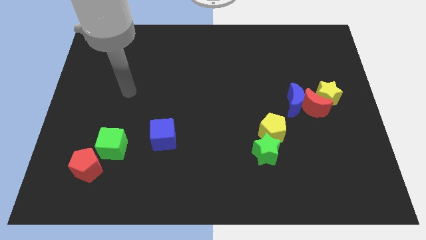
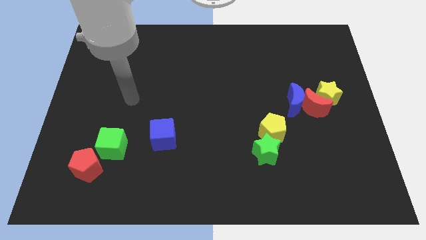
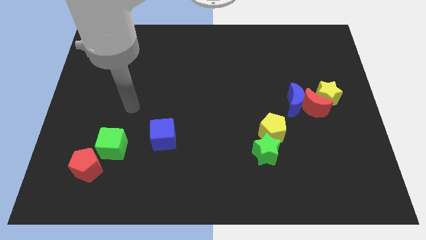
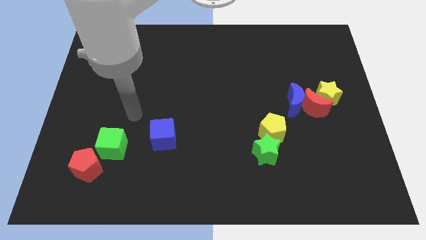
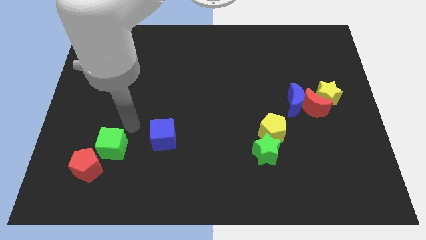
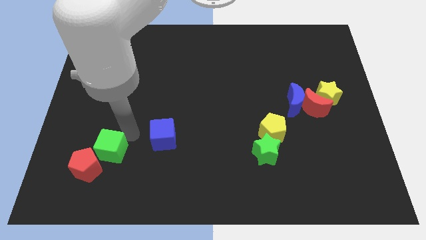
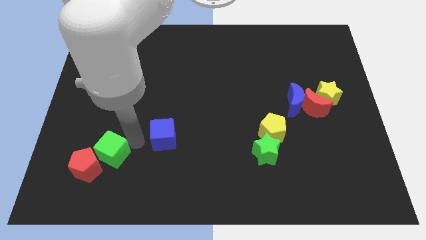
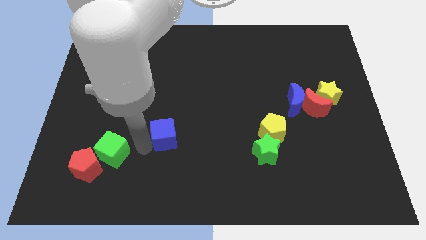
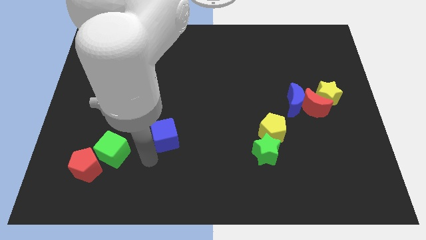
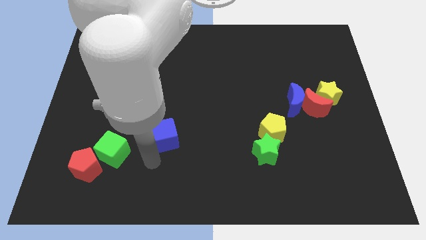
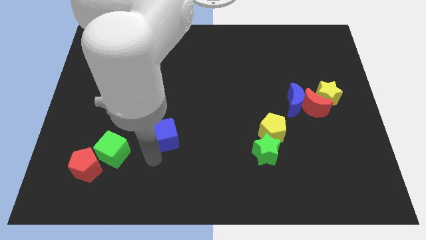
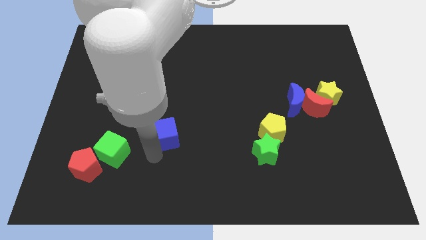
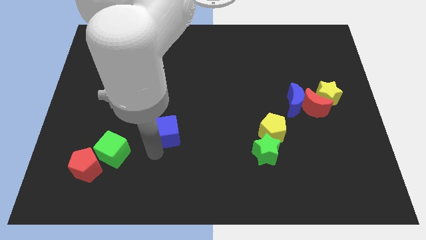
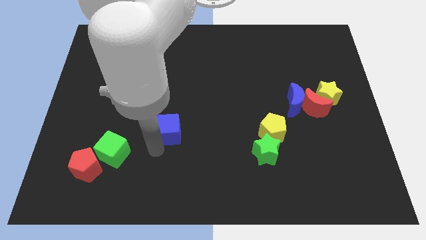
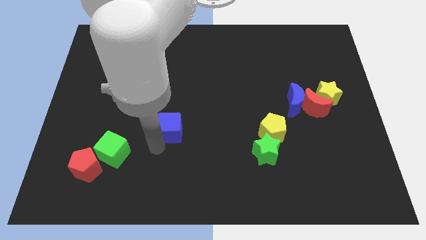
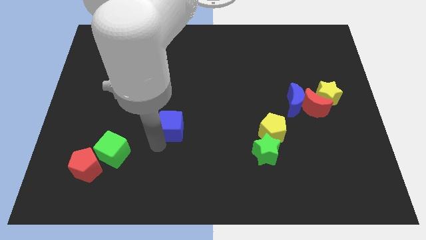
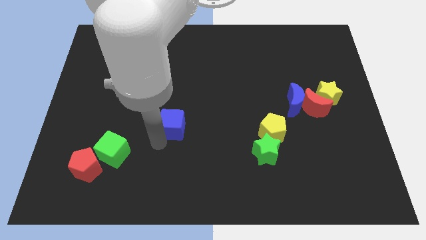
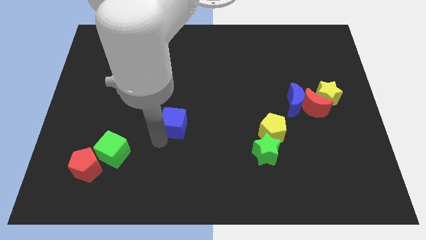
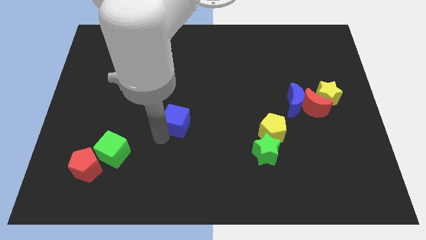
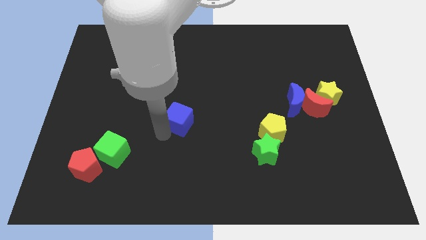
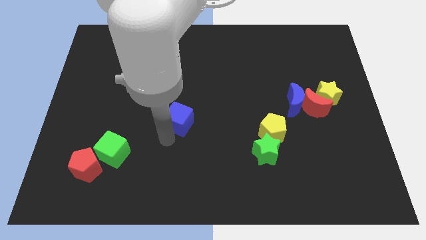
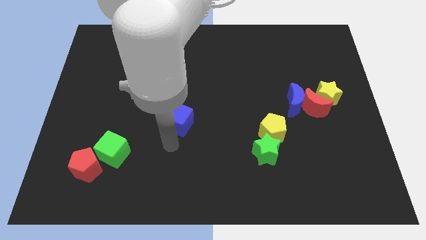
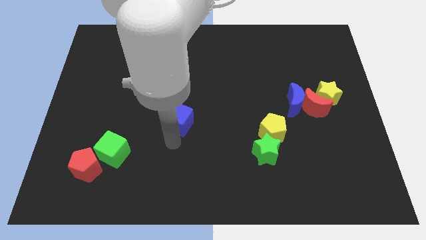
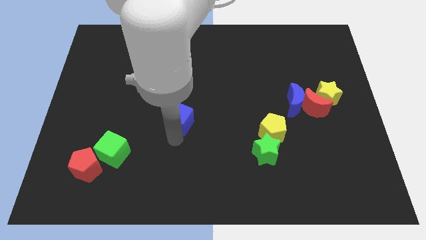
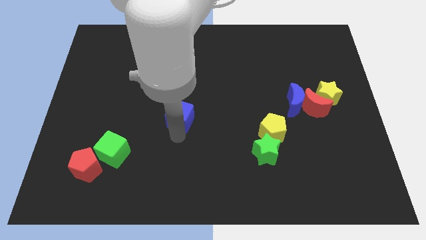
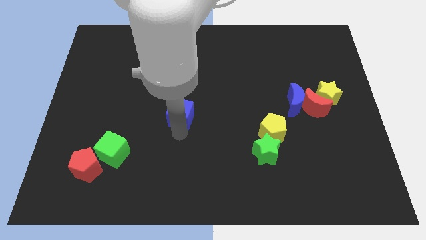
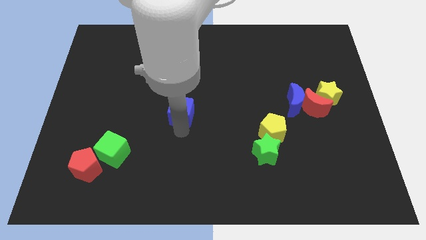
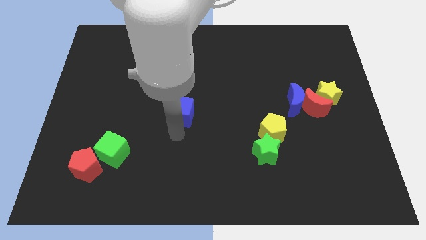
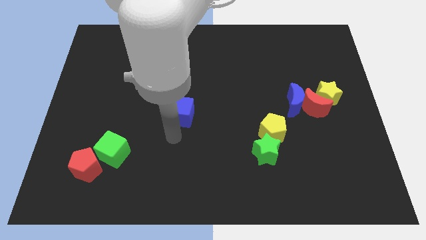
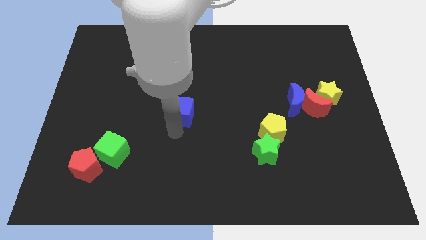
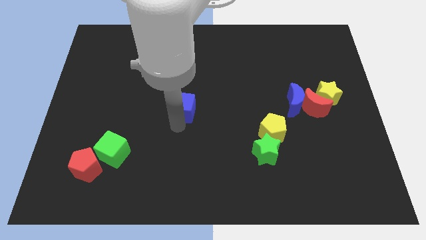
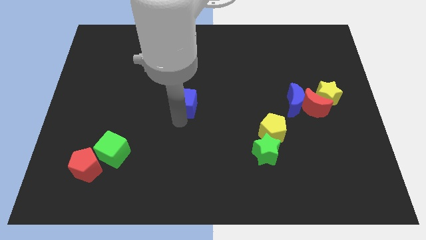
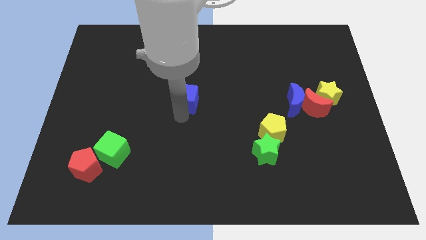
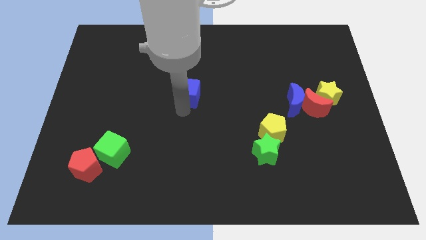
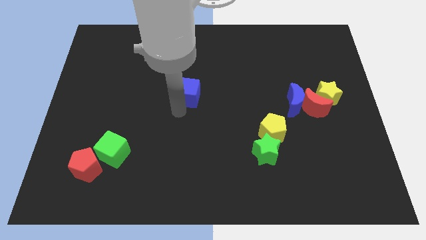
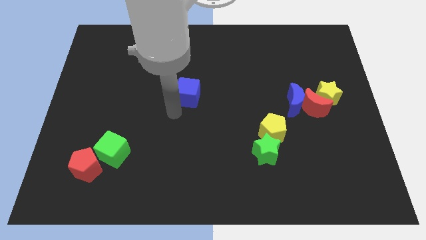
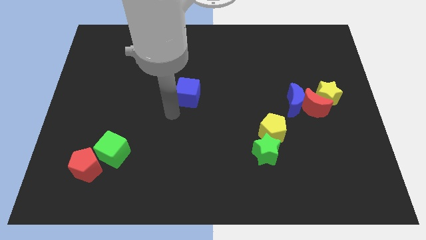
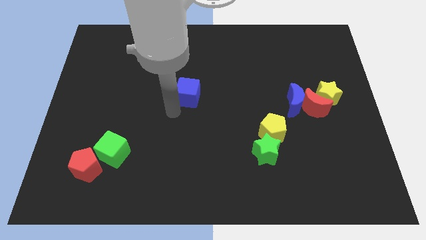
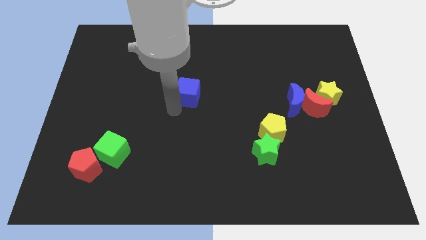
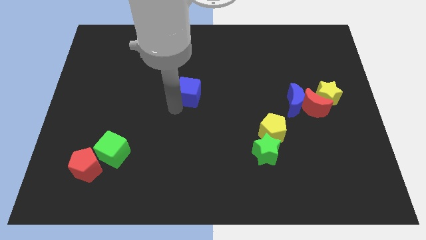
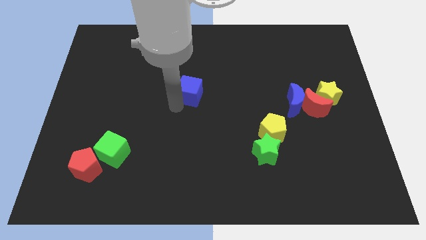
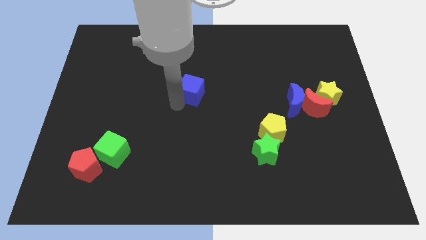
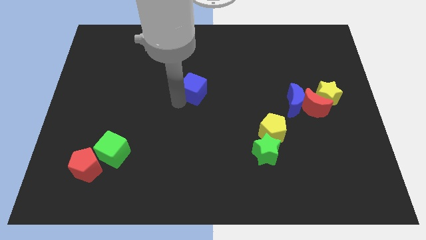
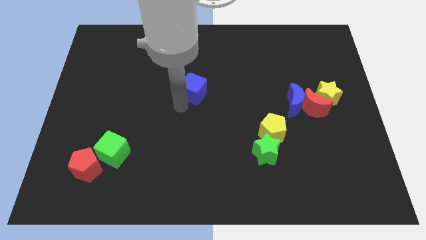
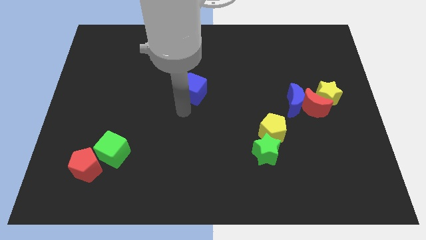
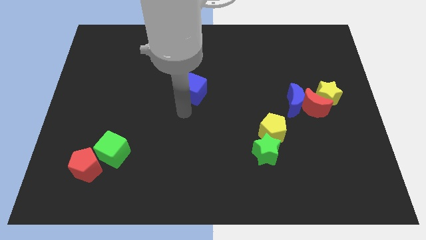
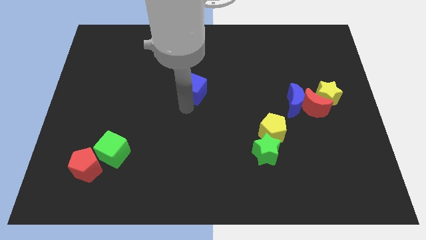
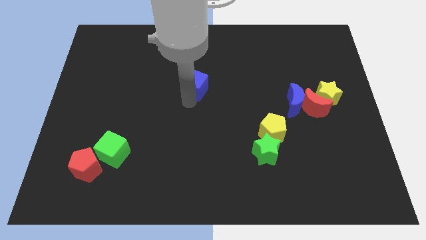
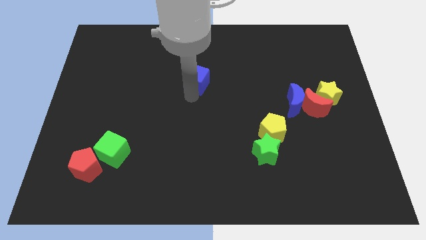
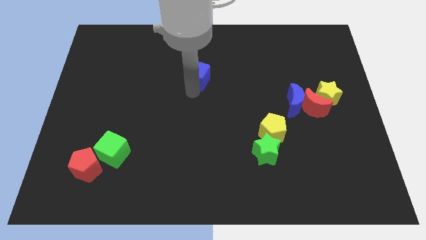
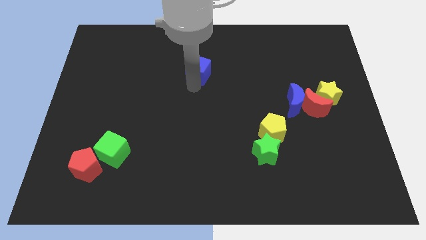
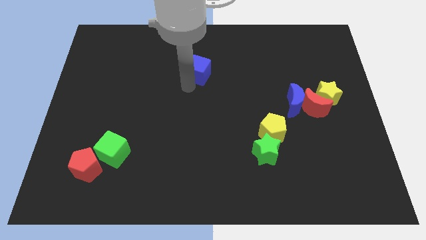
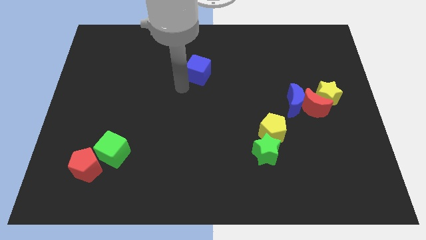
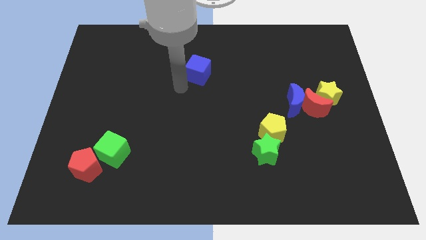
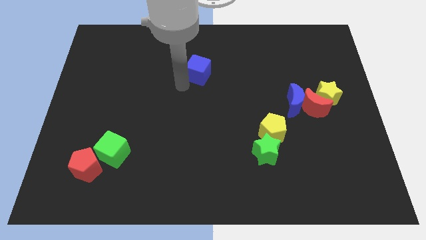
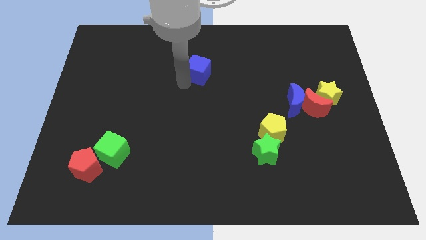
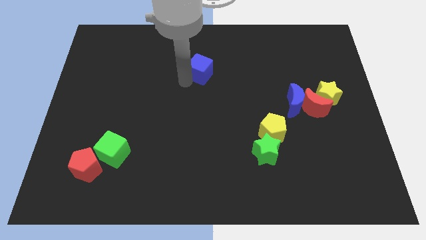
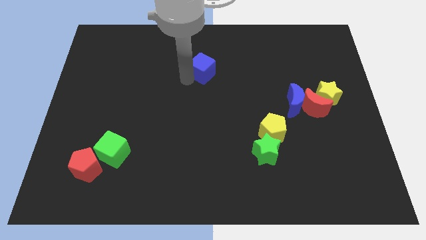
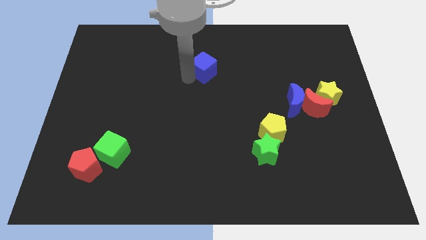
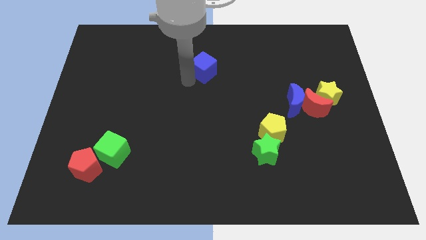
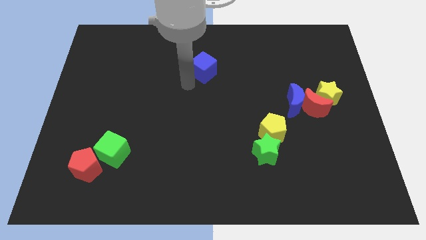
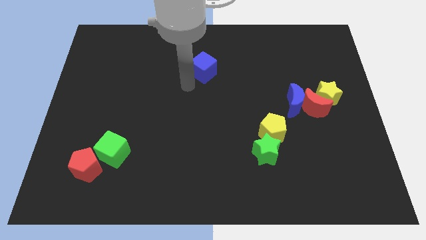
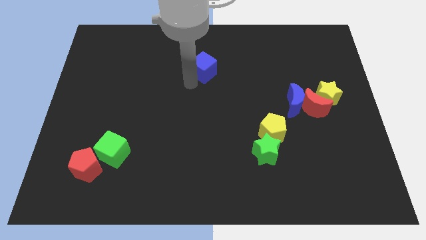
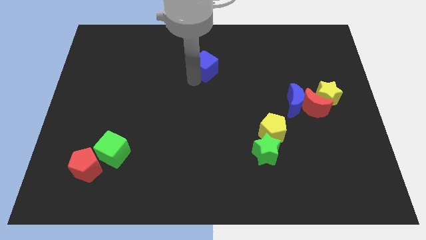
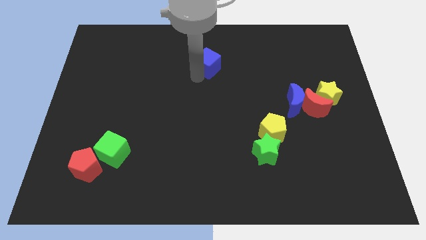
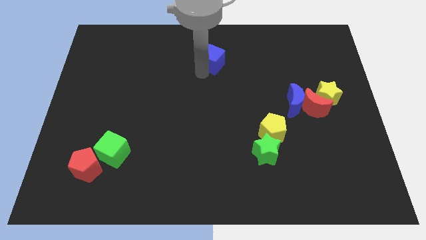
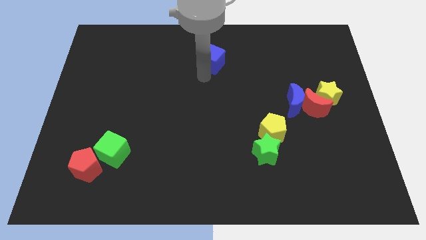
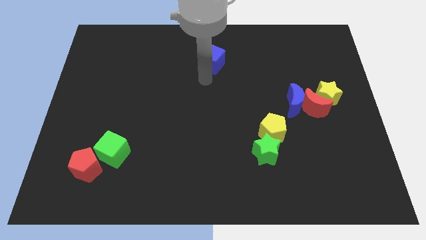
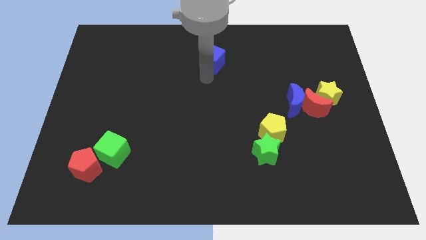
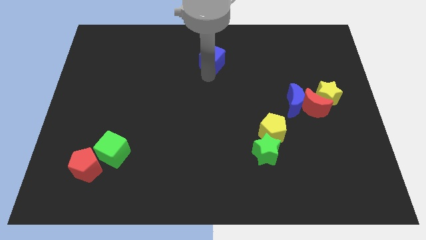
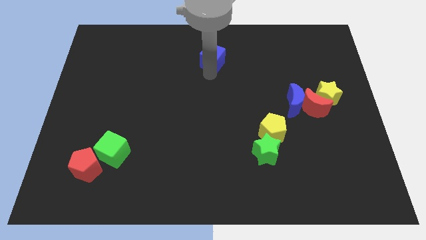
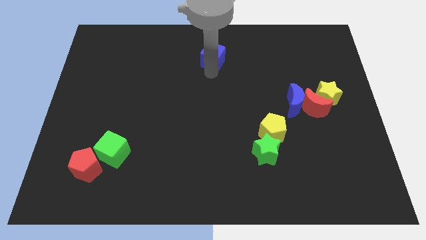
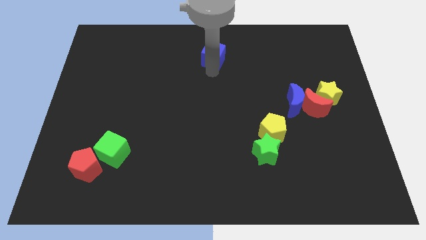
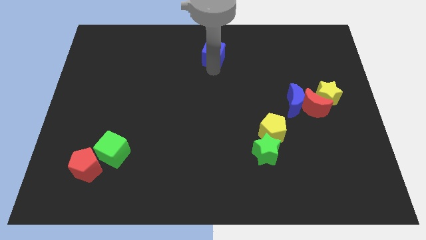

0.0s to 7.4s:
slide the blue cube to the top side

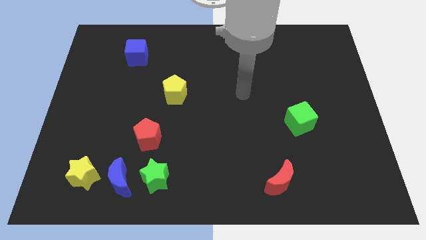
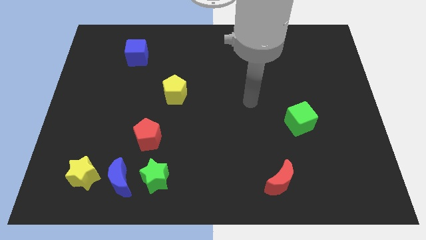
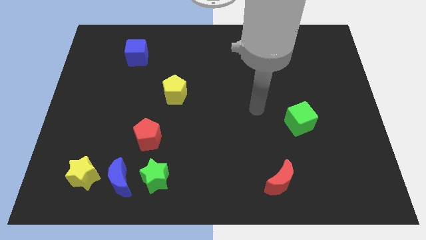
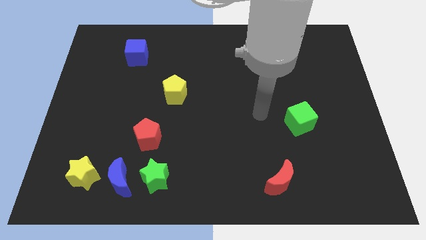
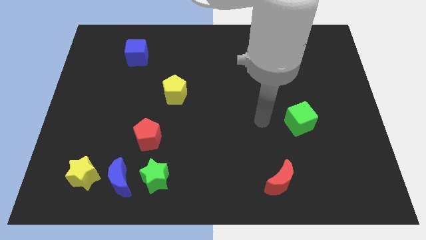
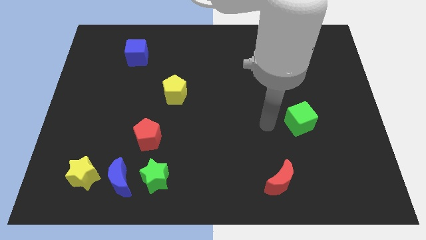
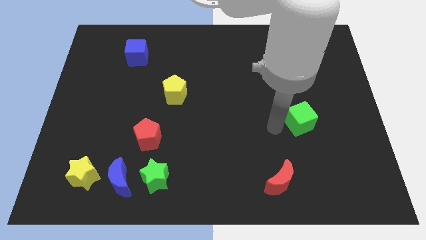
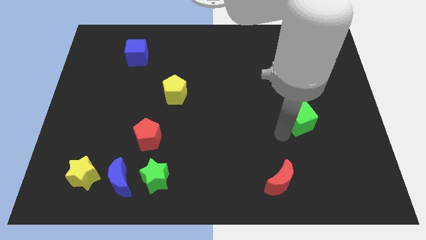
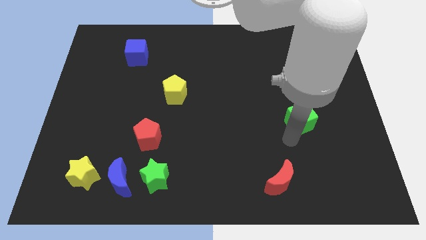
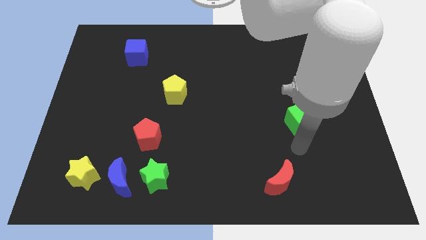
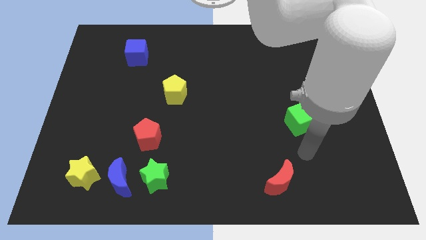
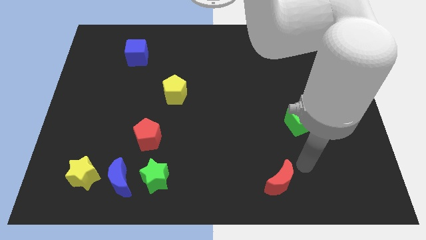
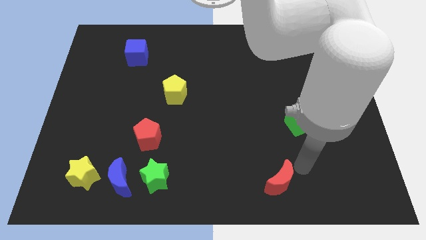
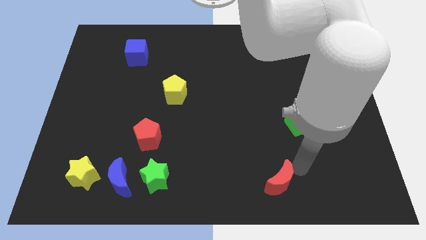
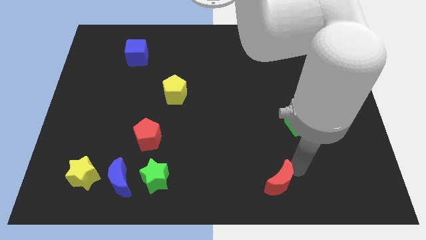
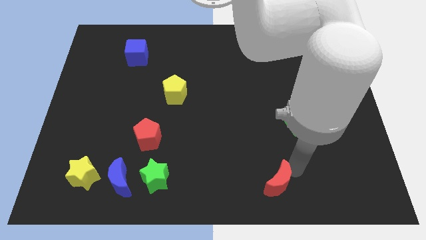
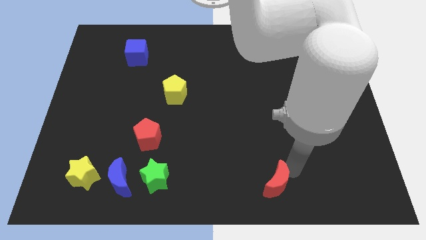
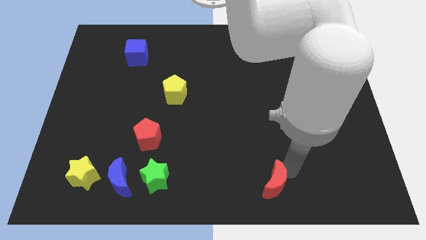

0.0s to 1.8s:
slide the red moon to the bottom
